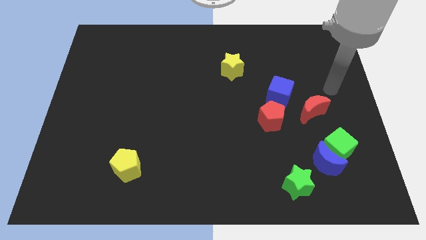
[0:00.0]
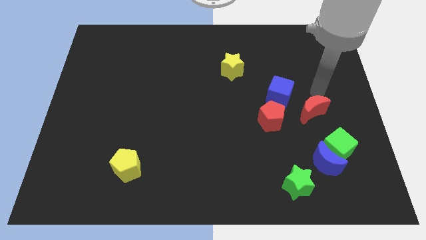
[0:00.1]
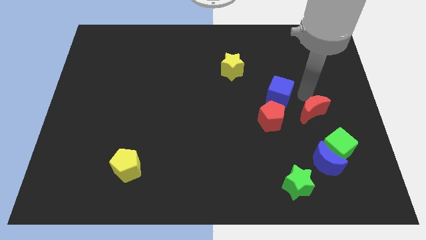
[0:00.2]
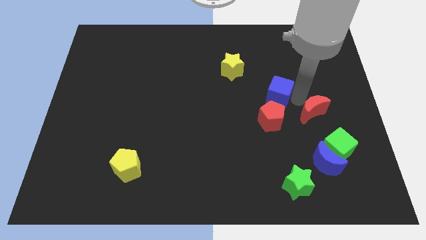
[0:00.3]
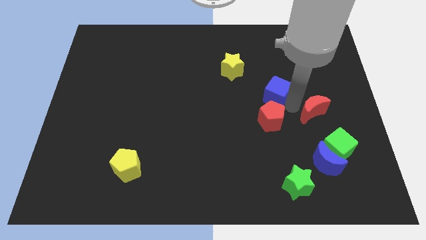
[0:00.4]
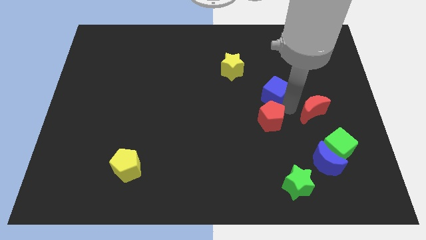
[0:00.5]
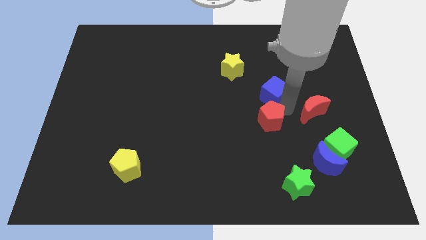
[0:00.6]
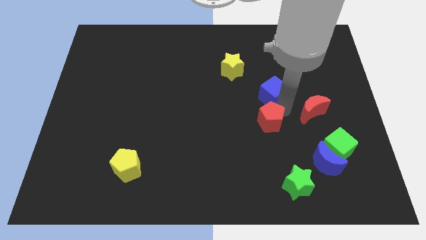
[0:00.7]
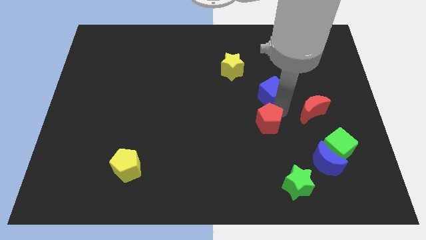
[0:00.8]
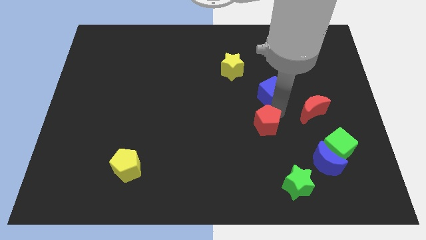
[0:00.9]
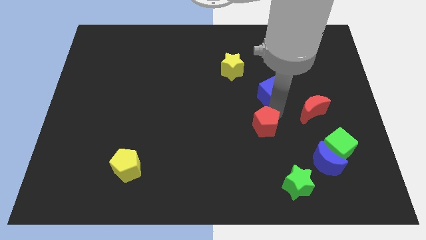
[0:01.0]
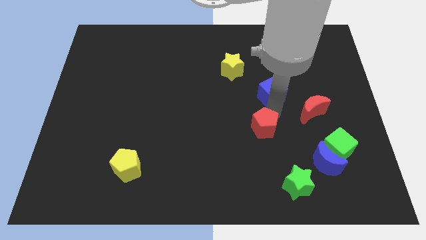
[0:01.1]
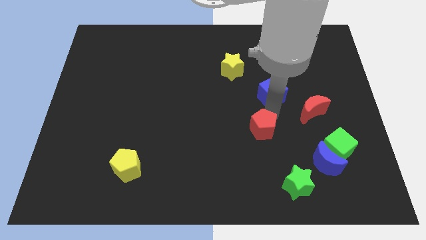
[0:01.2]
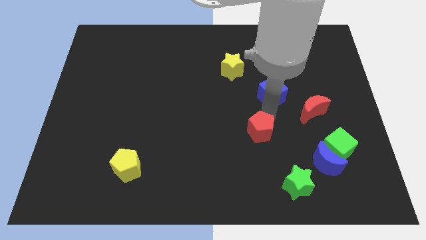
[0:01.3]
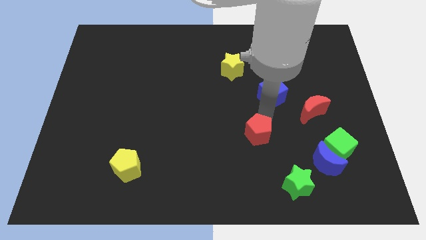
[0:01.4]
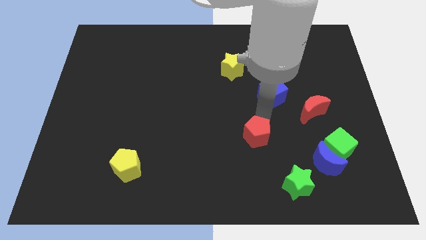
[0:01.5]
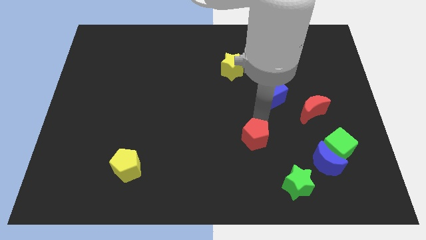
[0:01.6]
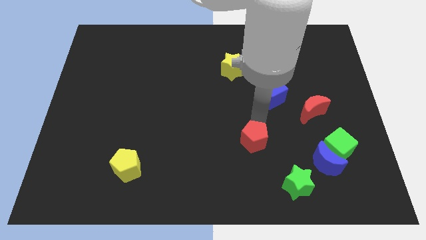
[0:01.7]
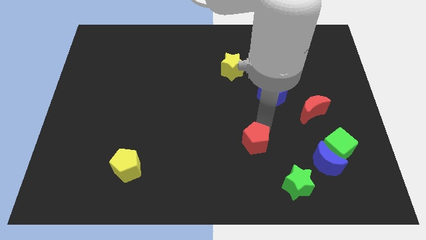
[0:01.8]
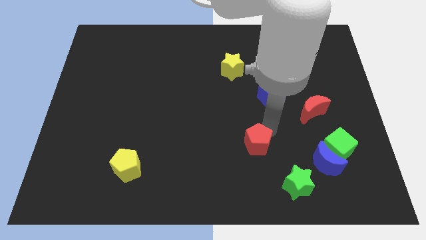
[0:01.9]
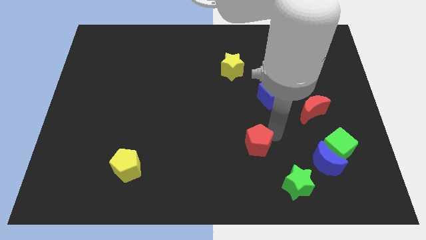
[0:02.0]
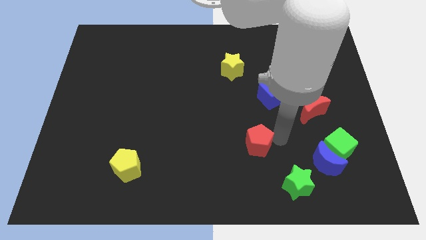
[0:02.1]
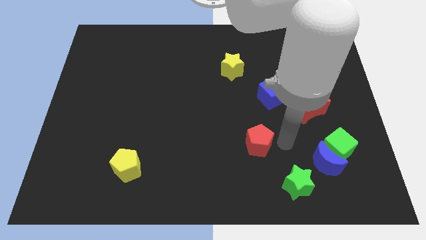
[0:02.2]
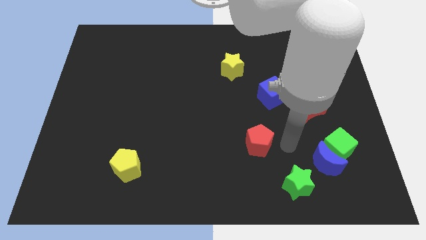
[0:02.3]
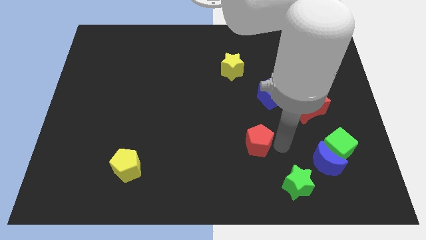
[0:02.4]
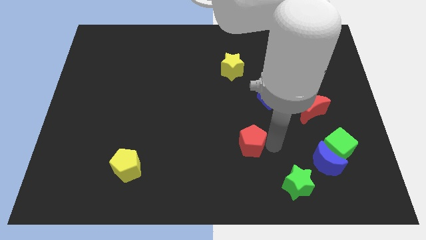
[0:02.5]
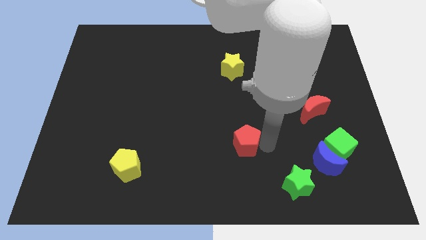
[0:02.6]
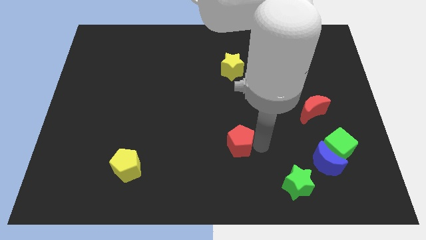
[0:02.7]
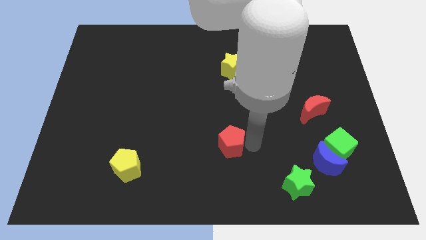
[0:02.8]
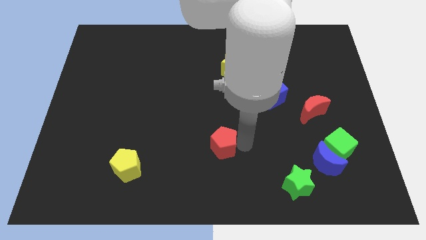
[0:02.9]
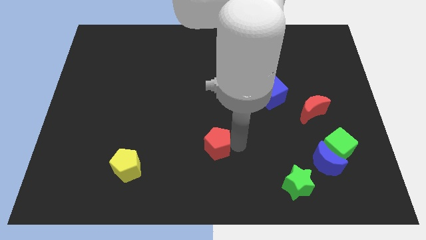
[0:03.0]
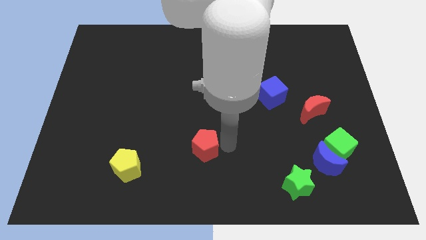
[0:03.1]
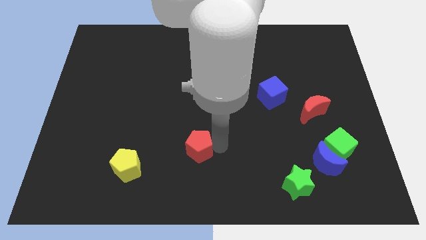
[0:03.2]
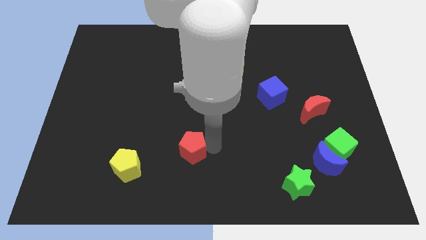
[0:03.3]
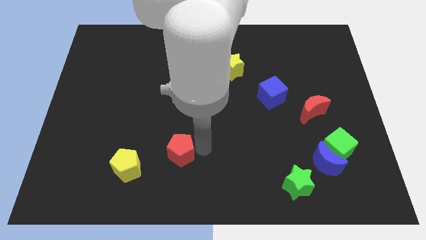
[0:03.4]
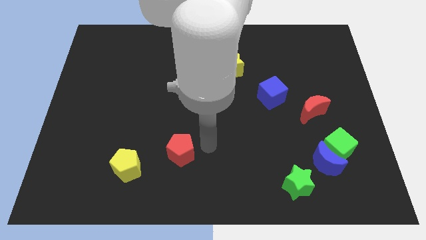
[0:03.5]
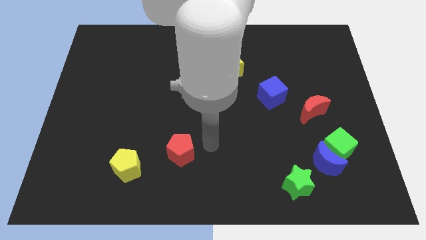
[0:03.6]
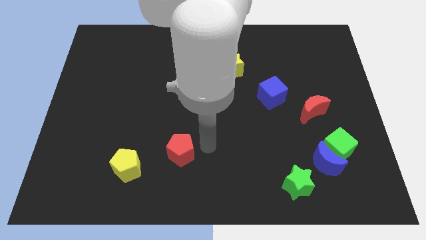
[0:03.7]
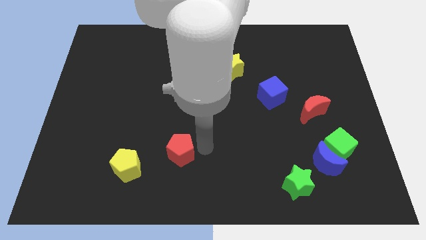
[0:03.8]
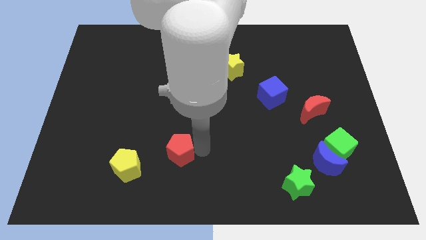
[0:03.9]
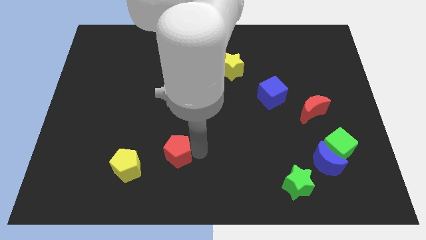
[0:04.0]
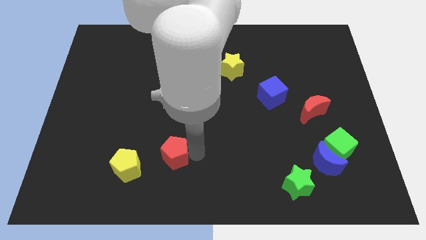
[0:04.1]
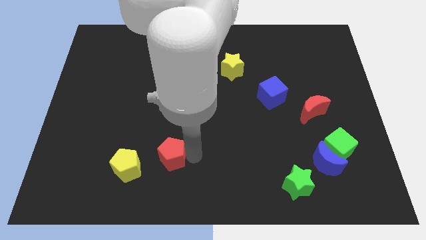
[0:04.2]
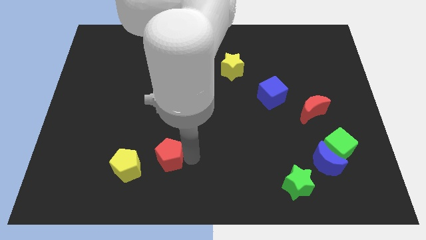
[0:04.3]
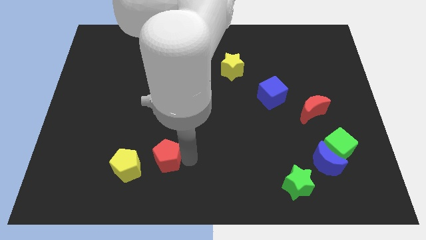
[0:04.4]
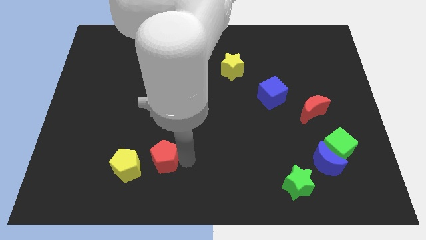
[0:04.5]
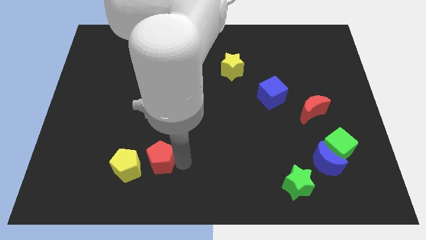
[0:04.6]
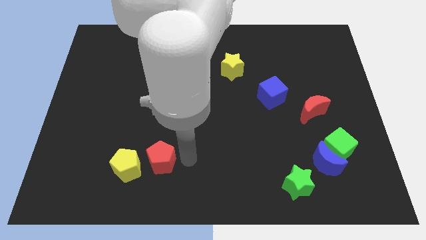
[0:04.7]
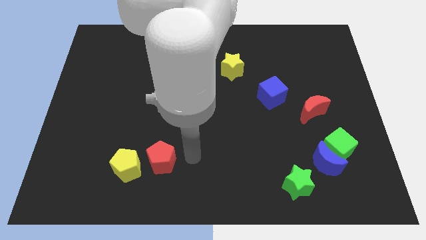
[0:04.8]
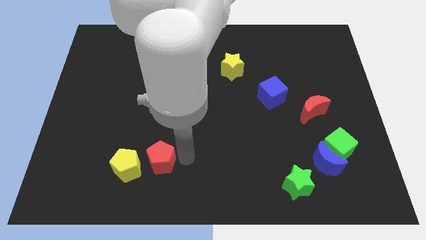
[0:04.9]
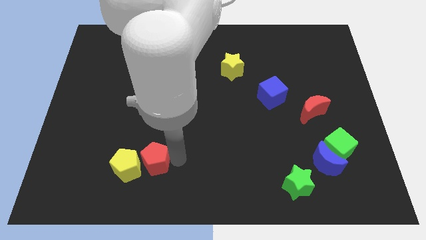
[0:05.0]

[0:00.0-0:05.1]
move the red pentagon towards the yellow pentagon

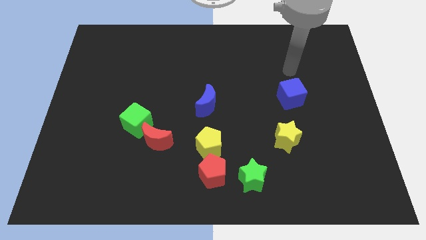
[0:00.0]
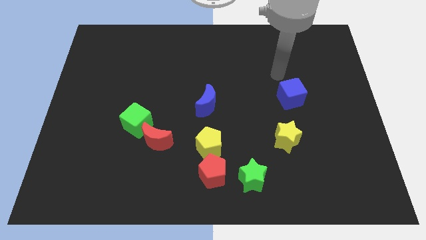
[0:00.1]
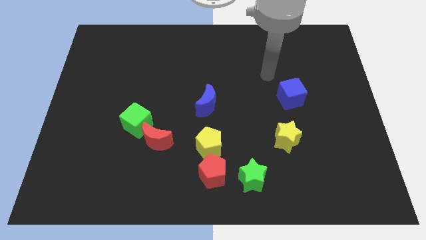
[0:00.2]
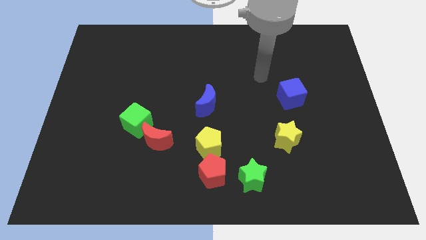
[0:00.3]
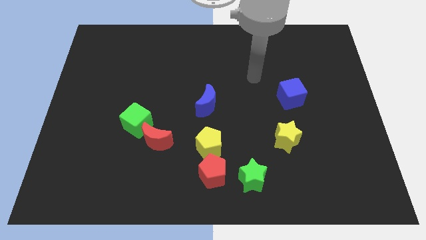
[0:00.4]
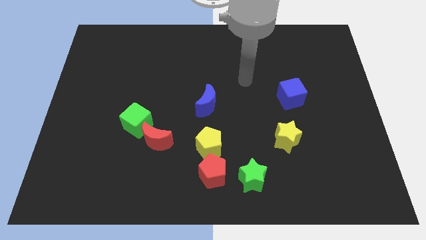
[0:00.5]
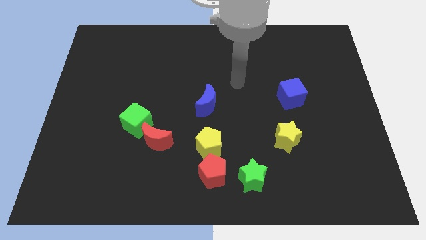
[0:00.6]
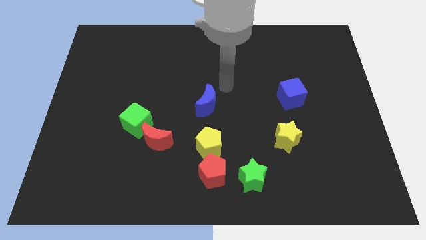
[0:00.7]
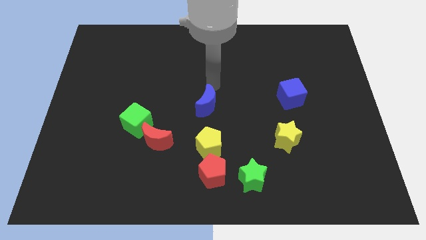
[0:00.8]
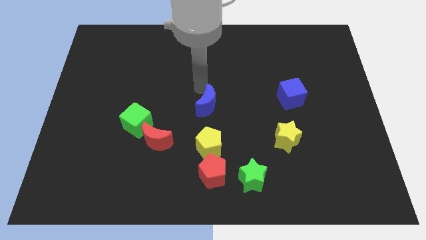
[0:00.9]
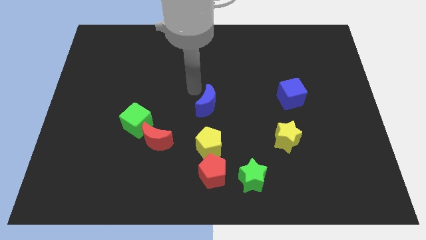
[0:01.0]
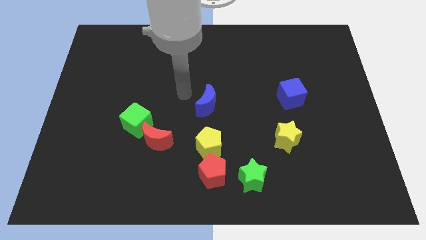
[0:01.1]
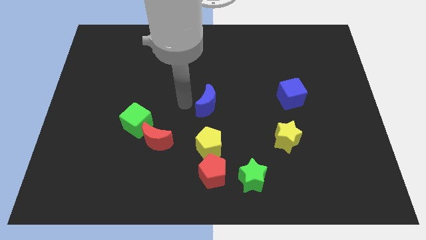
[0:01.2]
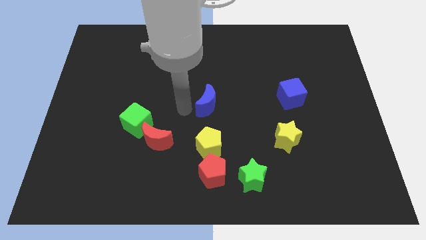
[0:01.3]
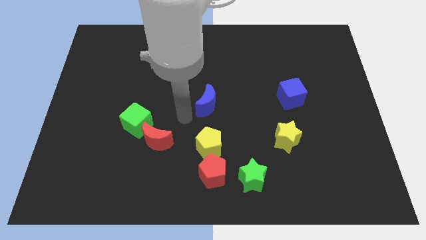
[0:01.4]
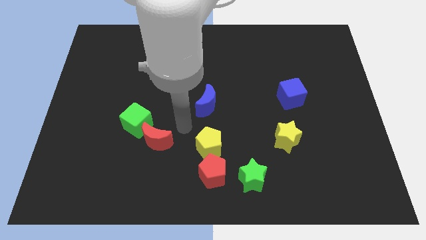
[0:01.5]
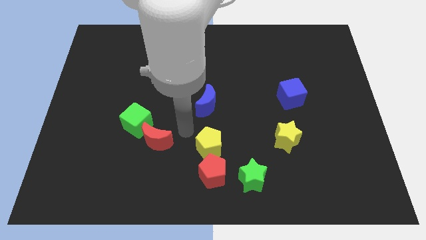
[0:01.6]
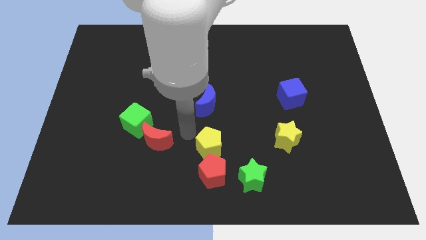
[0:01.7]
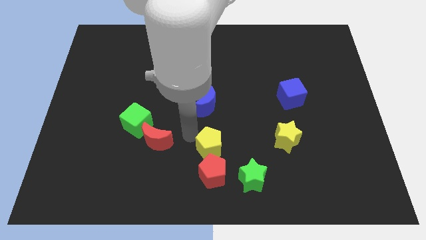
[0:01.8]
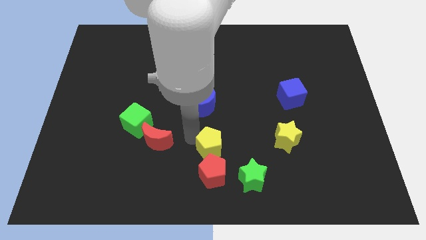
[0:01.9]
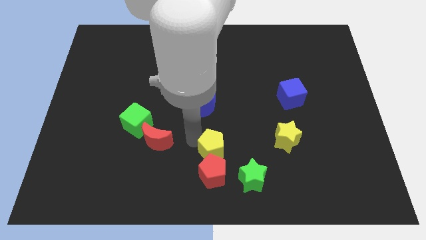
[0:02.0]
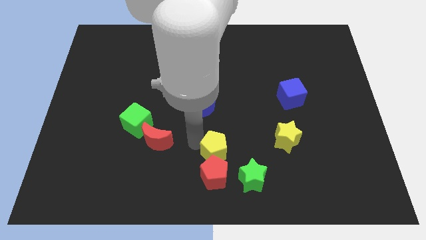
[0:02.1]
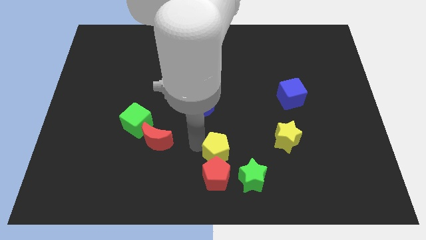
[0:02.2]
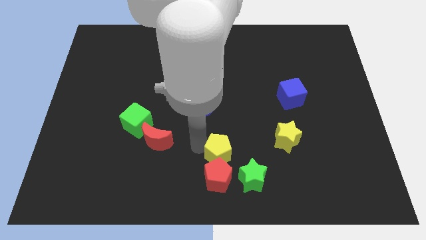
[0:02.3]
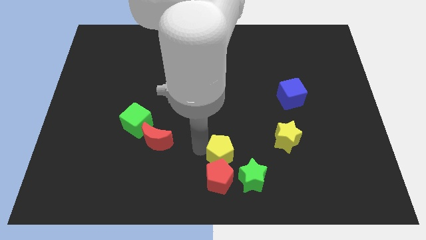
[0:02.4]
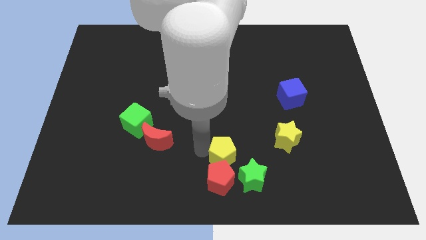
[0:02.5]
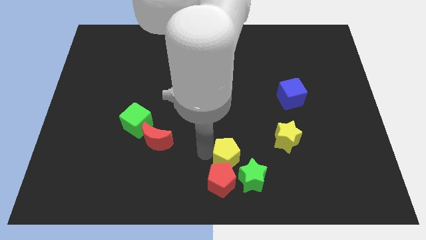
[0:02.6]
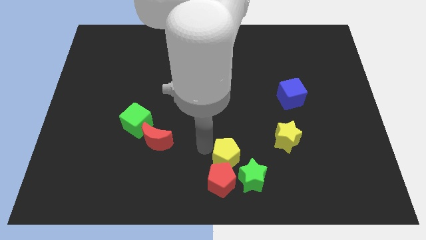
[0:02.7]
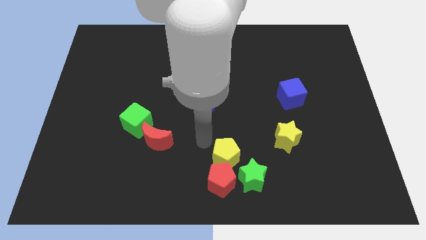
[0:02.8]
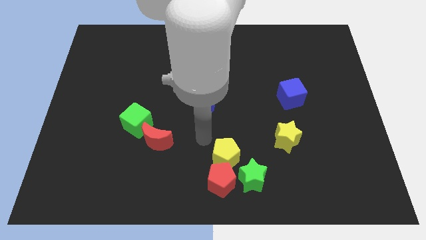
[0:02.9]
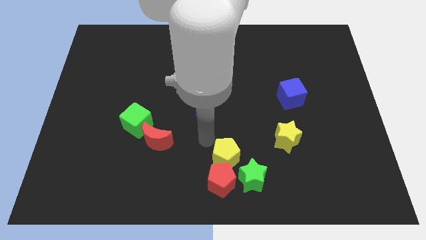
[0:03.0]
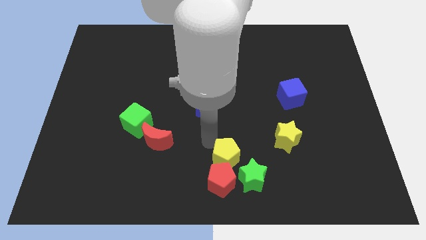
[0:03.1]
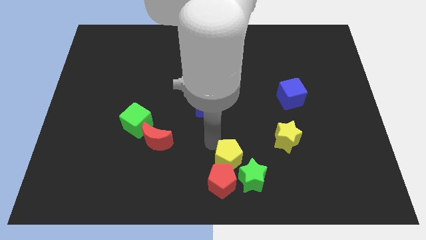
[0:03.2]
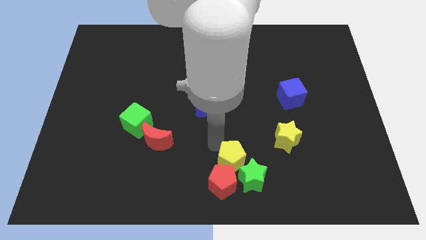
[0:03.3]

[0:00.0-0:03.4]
slide the yellow pentagon to the green star
